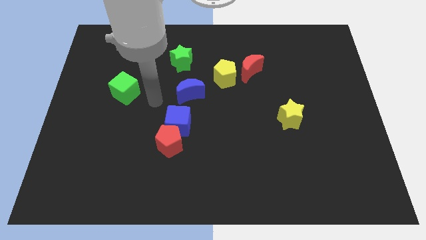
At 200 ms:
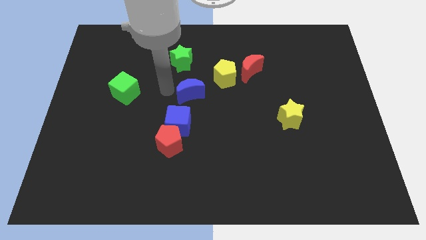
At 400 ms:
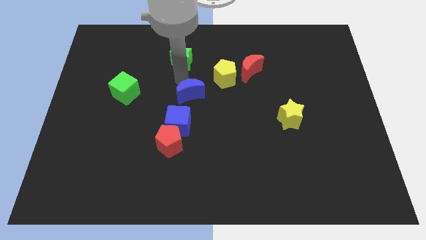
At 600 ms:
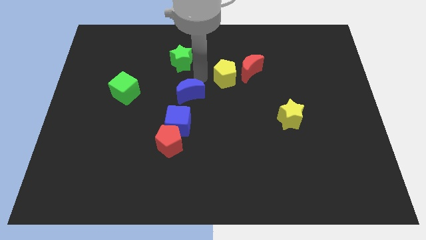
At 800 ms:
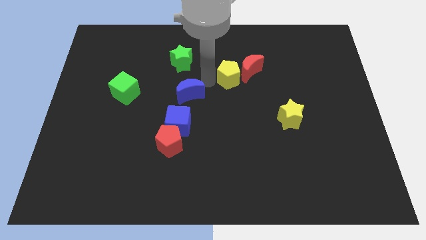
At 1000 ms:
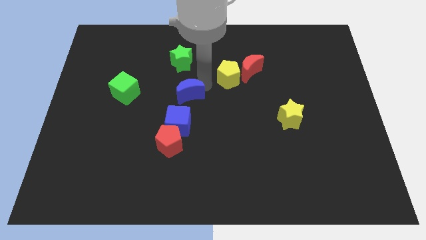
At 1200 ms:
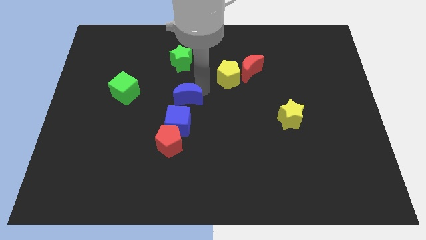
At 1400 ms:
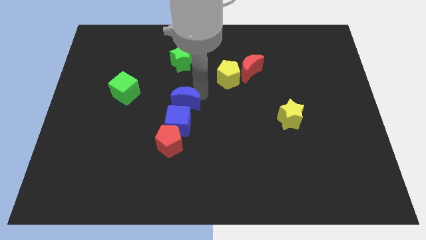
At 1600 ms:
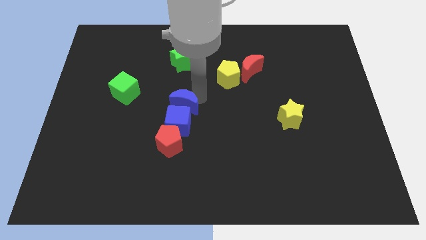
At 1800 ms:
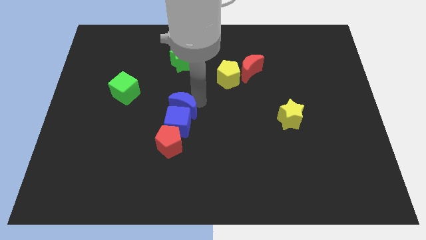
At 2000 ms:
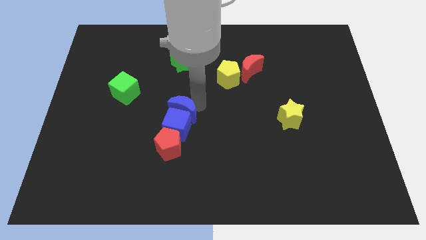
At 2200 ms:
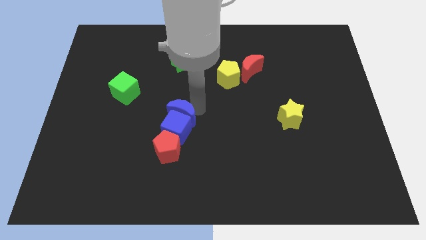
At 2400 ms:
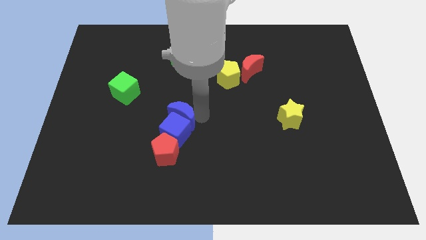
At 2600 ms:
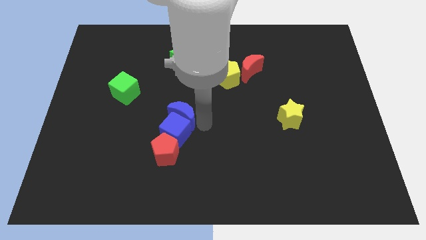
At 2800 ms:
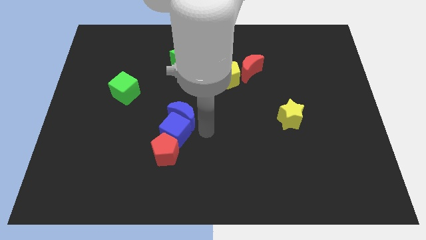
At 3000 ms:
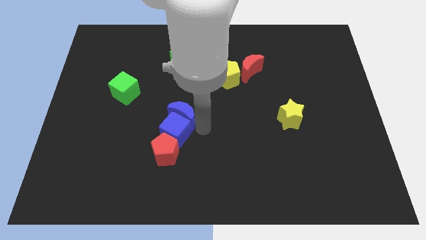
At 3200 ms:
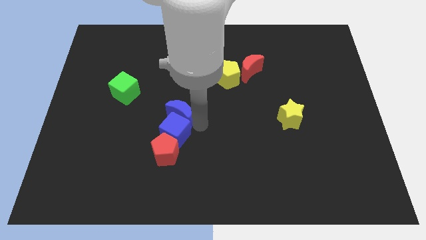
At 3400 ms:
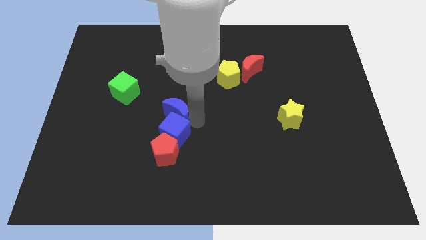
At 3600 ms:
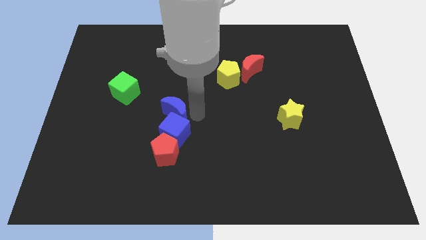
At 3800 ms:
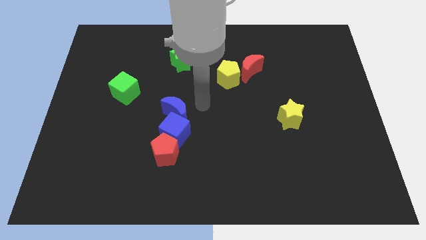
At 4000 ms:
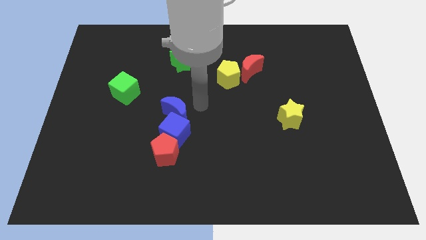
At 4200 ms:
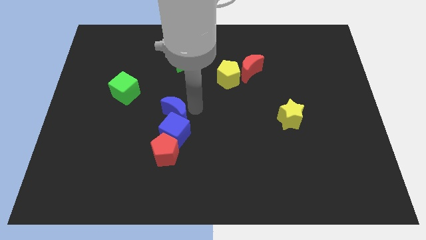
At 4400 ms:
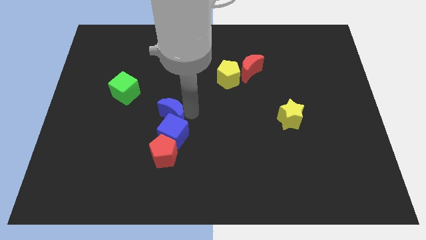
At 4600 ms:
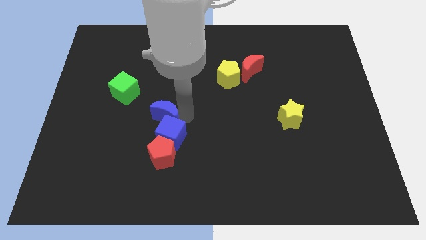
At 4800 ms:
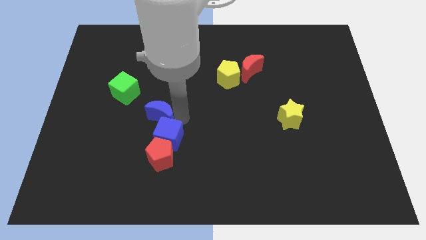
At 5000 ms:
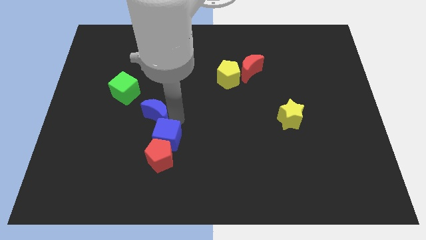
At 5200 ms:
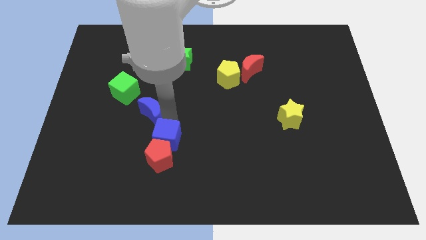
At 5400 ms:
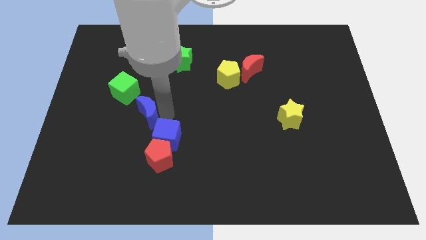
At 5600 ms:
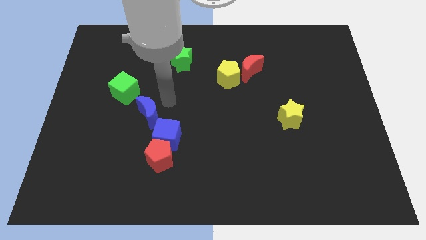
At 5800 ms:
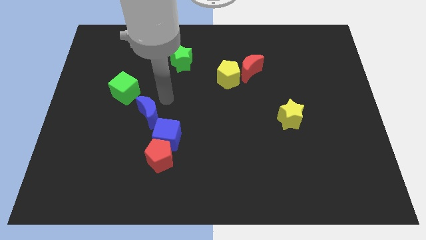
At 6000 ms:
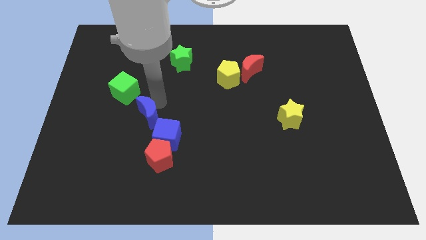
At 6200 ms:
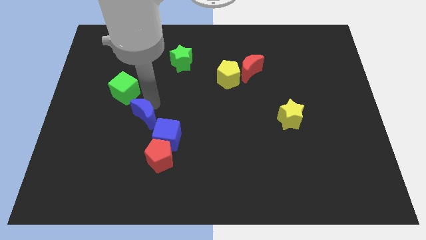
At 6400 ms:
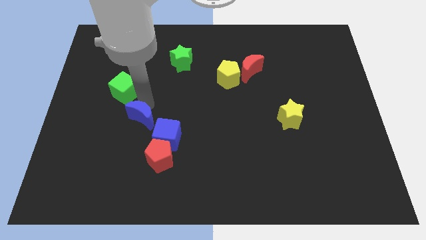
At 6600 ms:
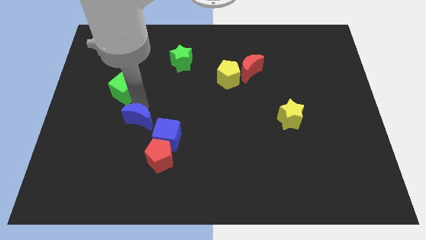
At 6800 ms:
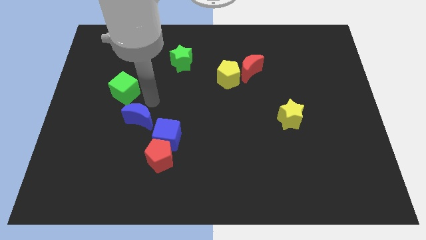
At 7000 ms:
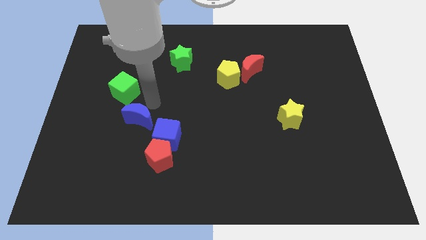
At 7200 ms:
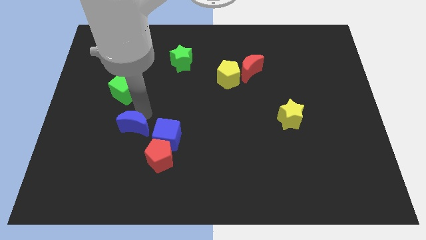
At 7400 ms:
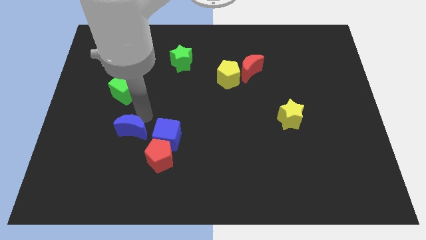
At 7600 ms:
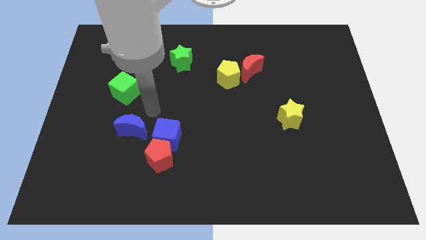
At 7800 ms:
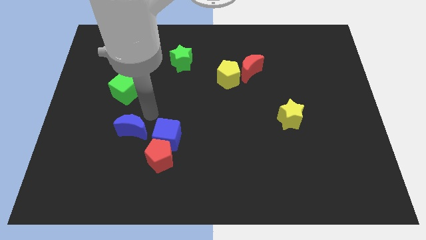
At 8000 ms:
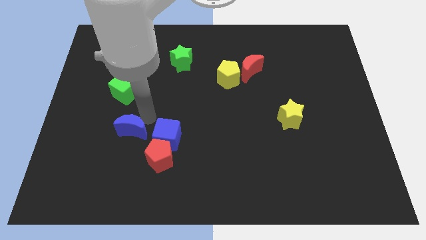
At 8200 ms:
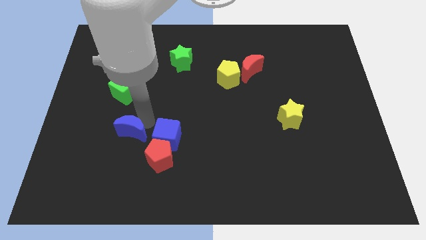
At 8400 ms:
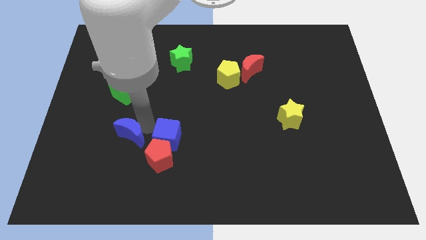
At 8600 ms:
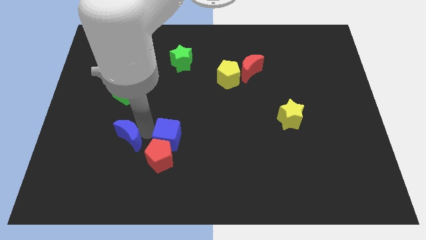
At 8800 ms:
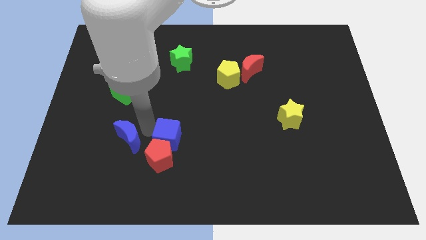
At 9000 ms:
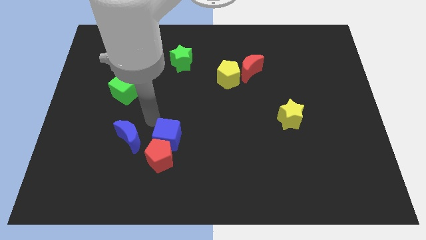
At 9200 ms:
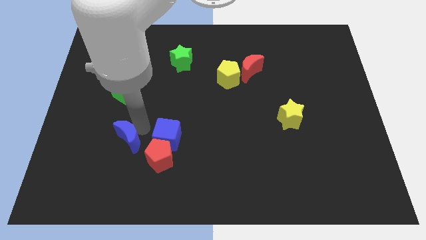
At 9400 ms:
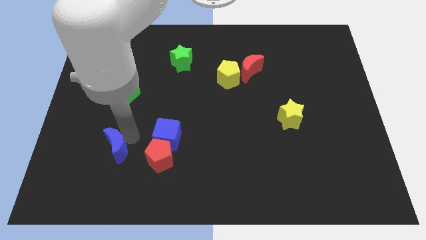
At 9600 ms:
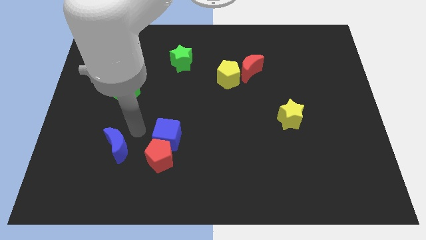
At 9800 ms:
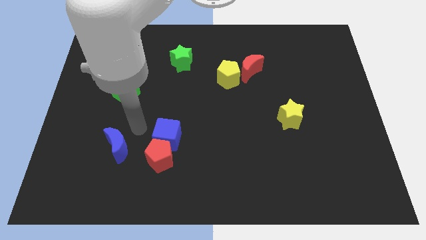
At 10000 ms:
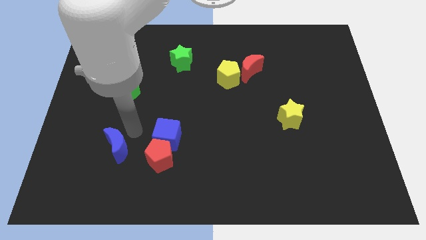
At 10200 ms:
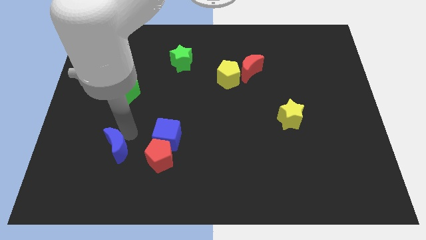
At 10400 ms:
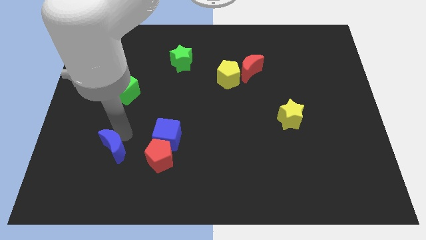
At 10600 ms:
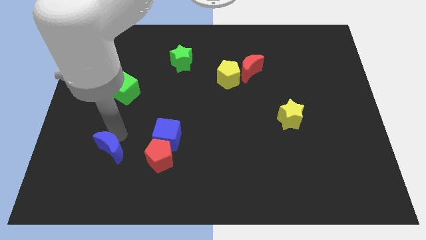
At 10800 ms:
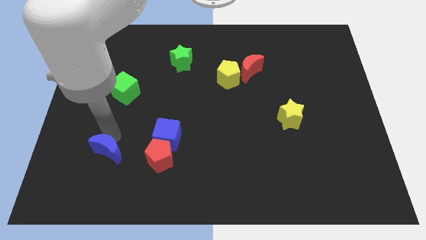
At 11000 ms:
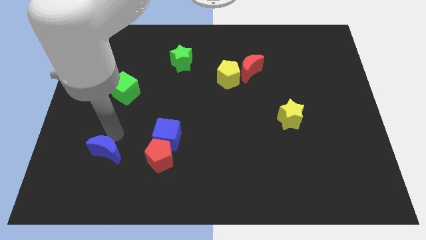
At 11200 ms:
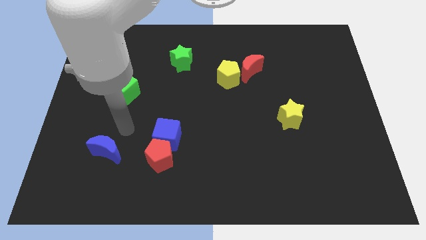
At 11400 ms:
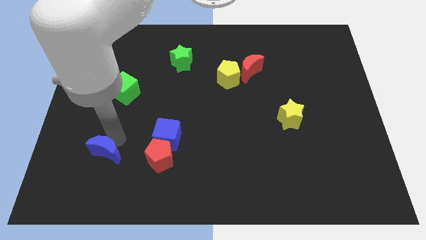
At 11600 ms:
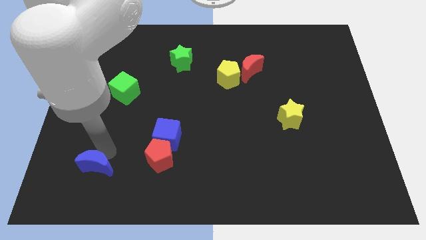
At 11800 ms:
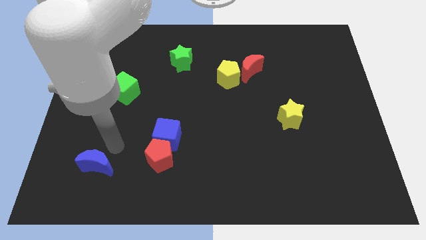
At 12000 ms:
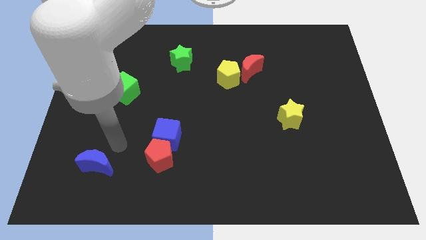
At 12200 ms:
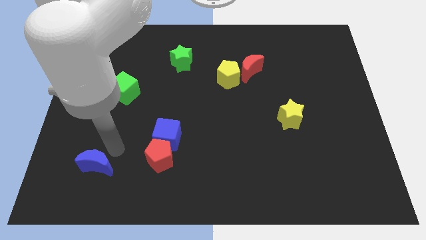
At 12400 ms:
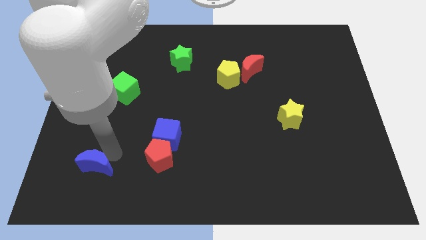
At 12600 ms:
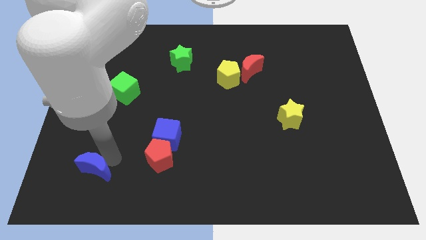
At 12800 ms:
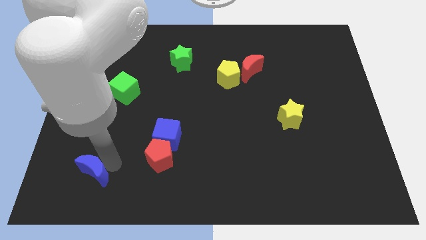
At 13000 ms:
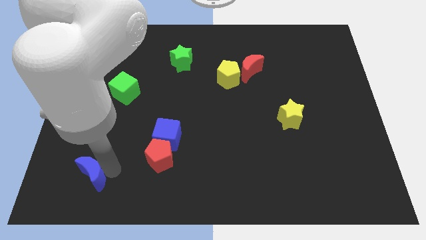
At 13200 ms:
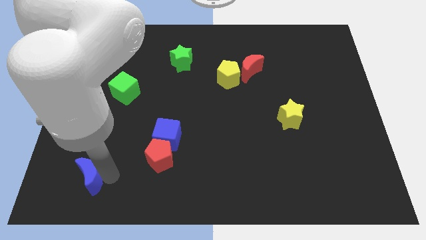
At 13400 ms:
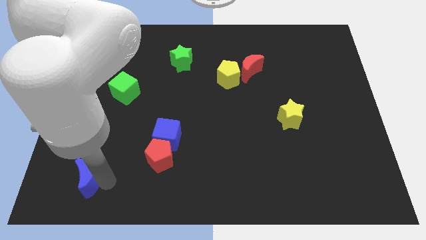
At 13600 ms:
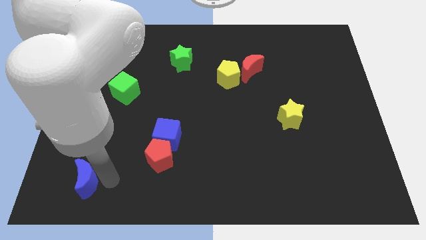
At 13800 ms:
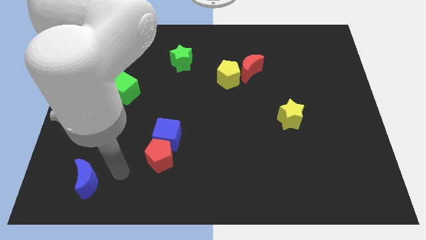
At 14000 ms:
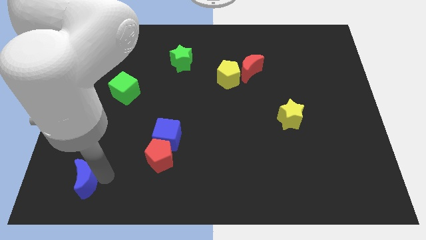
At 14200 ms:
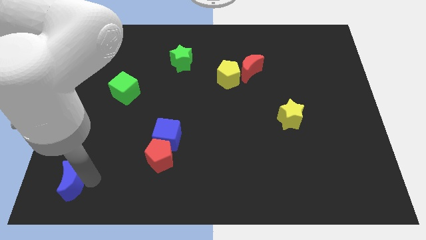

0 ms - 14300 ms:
move the blue moon to the bottom left of the board
